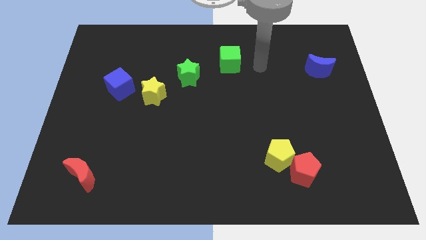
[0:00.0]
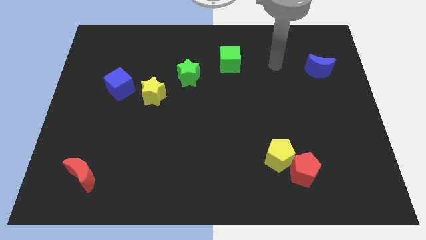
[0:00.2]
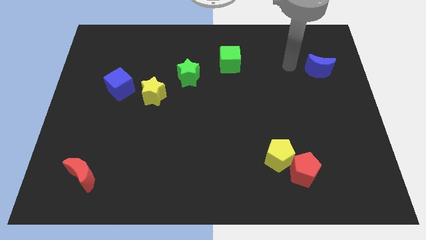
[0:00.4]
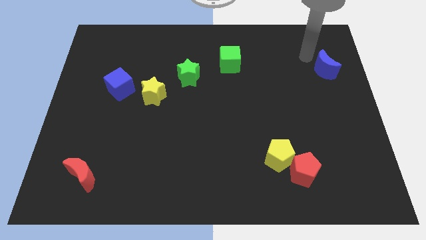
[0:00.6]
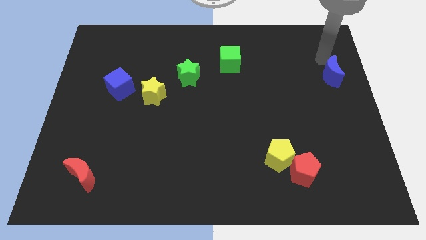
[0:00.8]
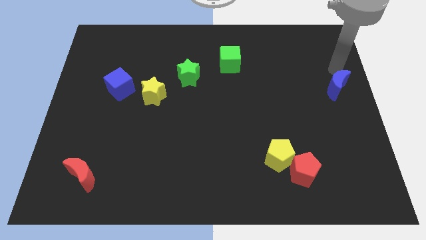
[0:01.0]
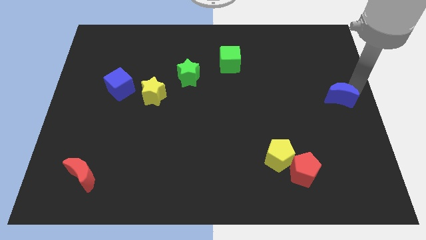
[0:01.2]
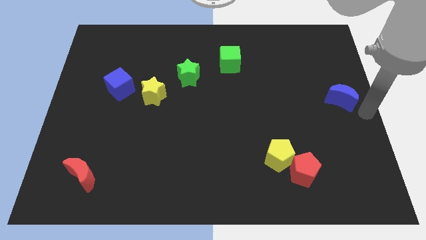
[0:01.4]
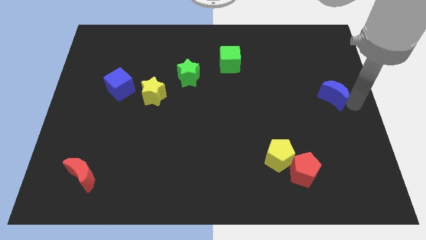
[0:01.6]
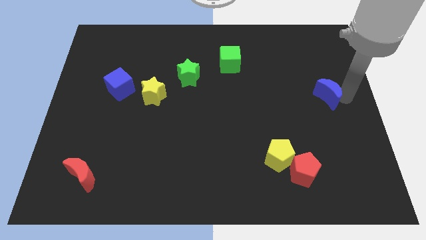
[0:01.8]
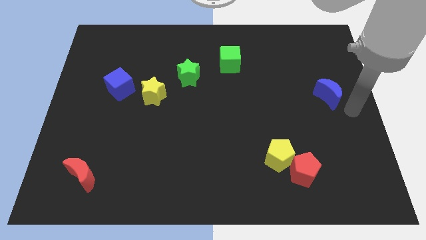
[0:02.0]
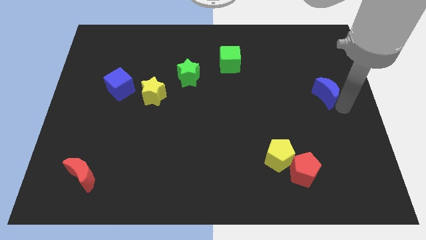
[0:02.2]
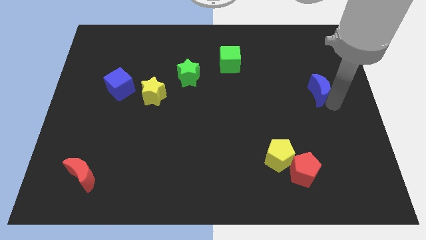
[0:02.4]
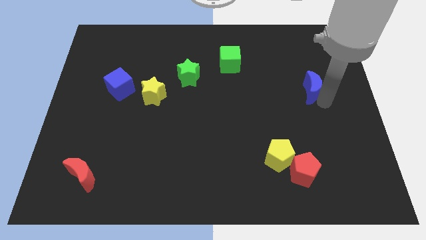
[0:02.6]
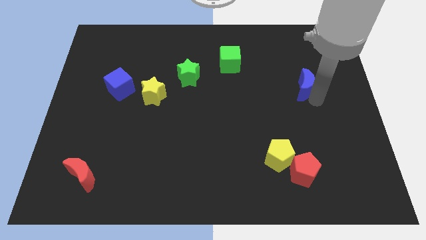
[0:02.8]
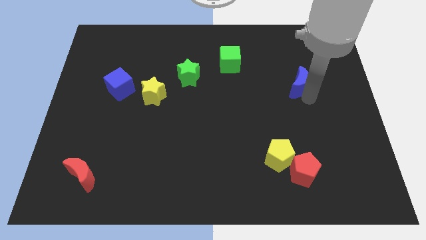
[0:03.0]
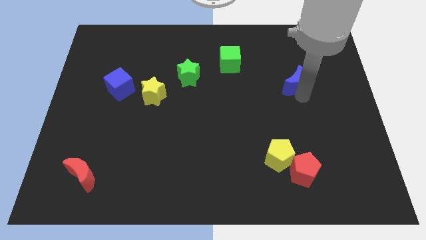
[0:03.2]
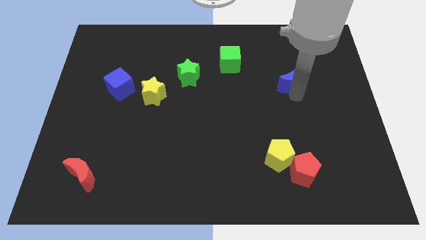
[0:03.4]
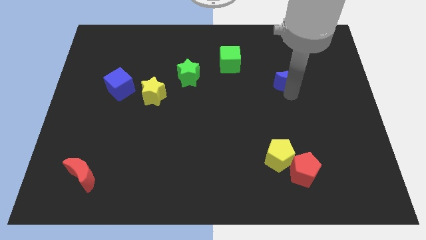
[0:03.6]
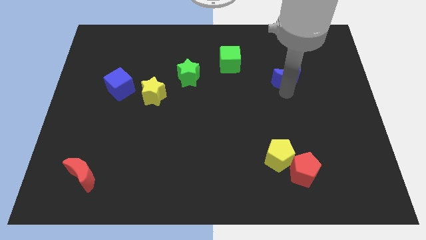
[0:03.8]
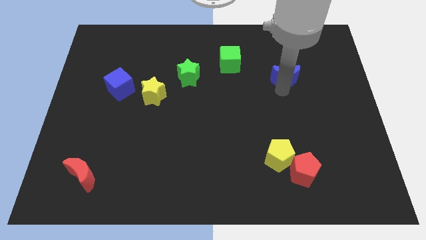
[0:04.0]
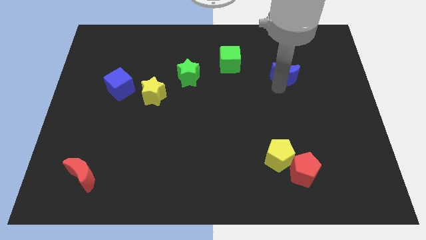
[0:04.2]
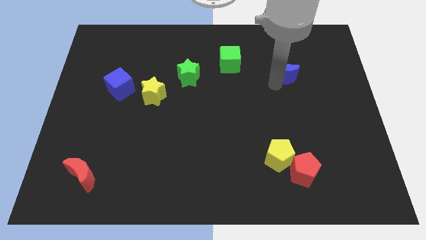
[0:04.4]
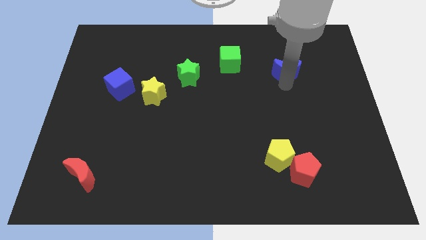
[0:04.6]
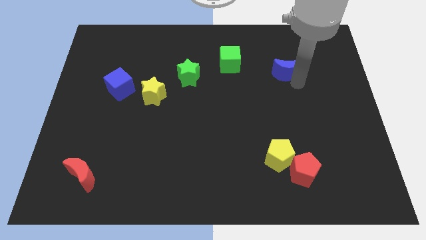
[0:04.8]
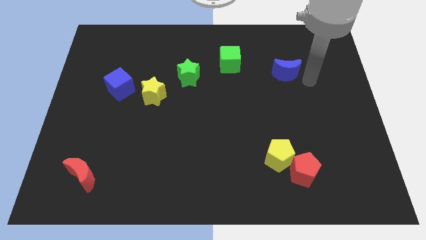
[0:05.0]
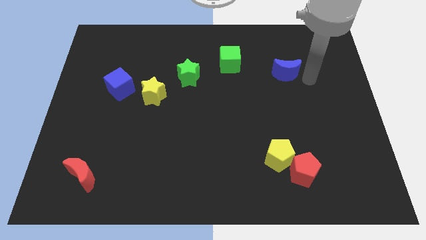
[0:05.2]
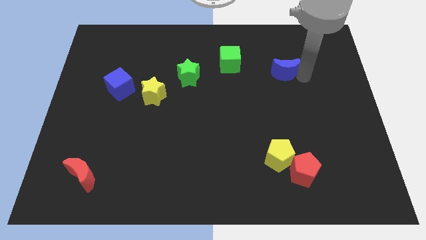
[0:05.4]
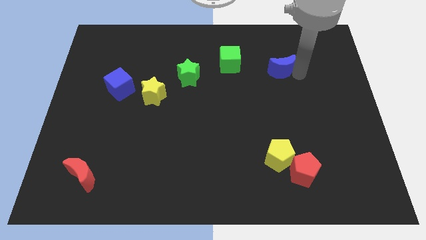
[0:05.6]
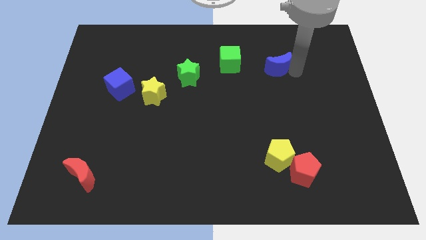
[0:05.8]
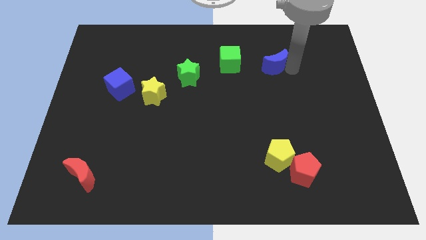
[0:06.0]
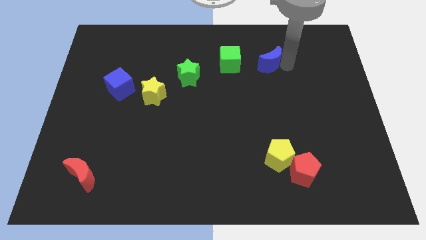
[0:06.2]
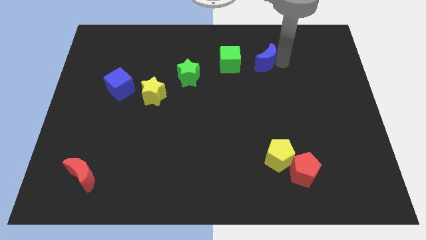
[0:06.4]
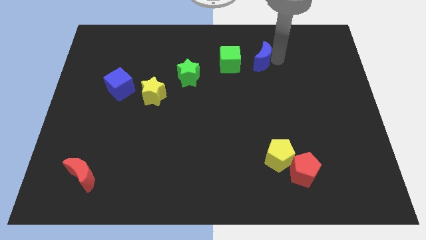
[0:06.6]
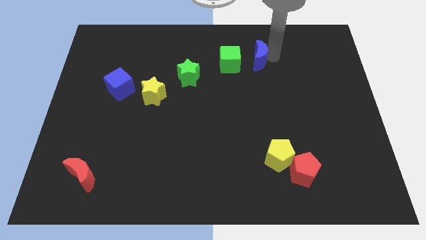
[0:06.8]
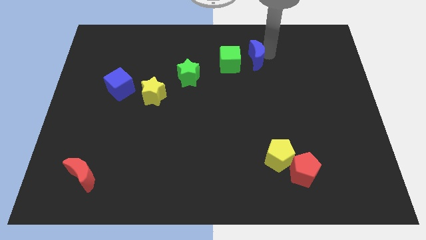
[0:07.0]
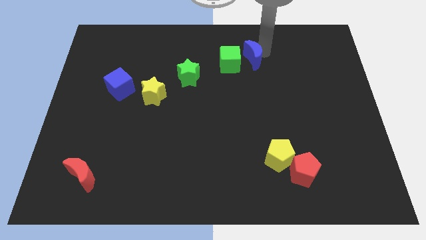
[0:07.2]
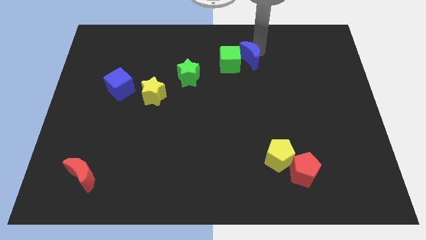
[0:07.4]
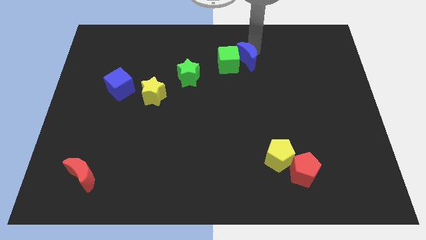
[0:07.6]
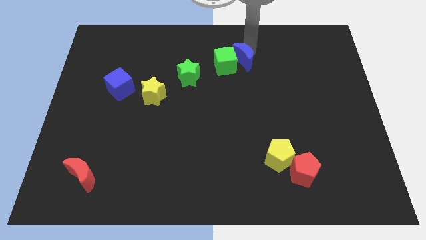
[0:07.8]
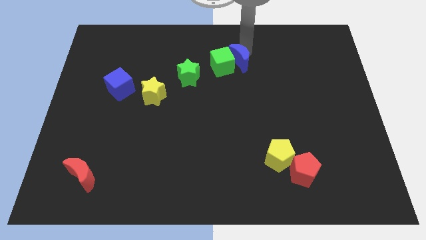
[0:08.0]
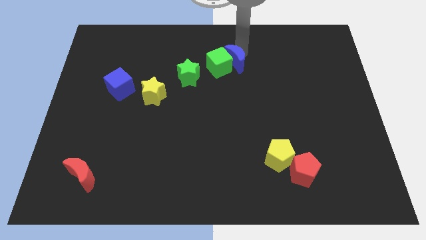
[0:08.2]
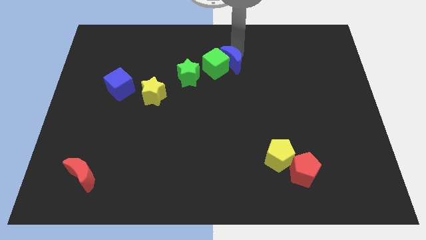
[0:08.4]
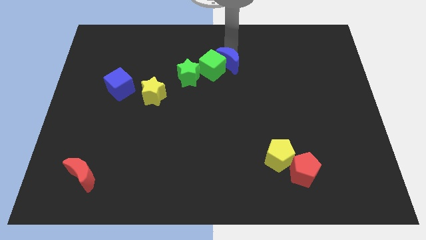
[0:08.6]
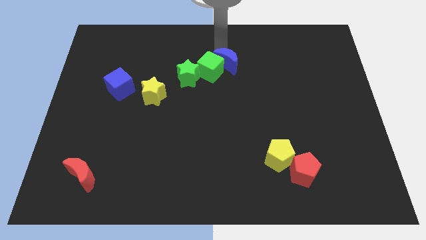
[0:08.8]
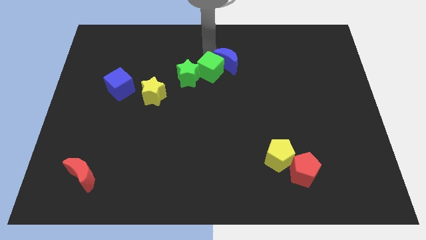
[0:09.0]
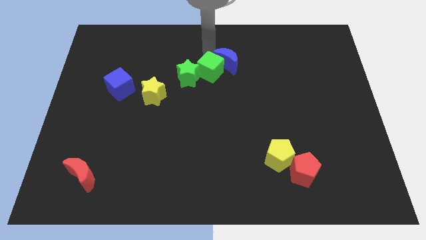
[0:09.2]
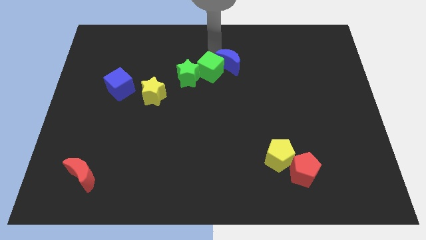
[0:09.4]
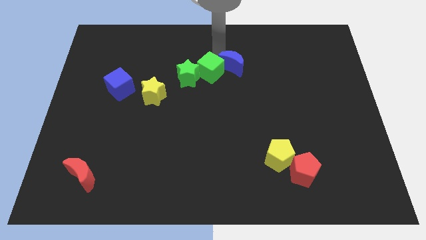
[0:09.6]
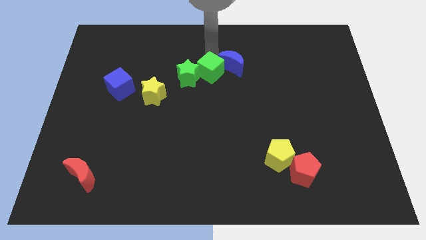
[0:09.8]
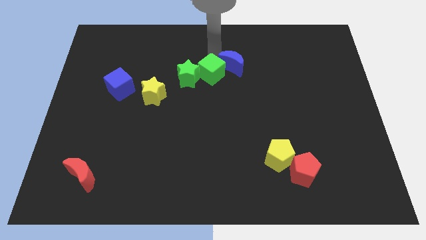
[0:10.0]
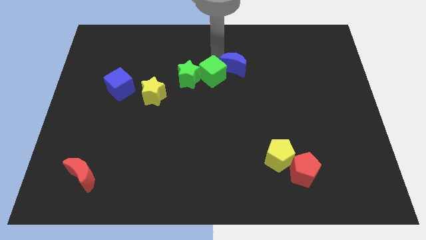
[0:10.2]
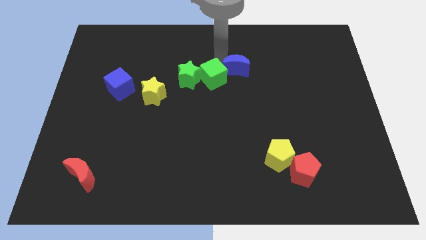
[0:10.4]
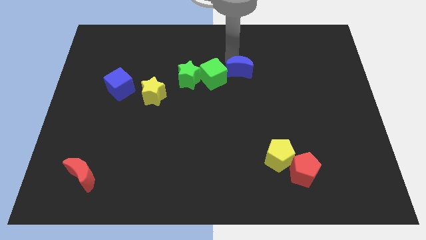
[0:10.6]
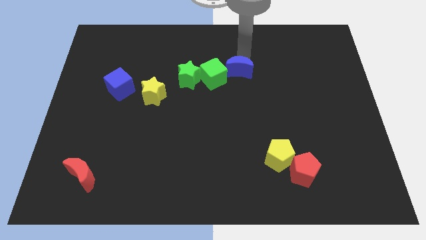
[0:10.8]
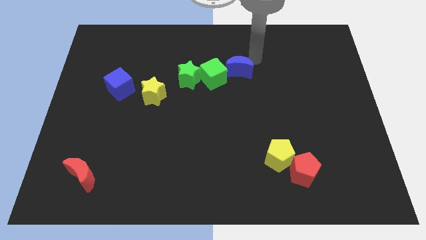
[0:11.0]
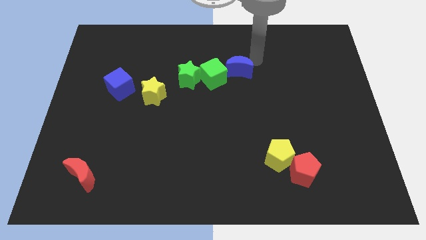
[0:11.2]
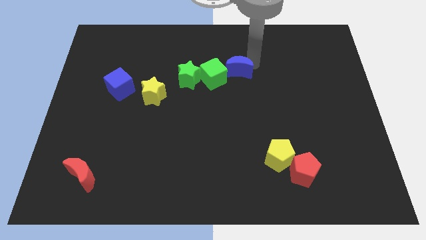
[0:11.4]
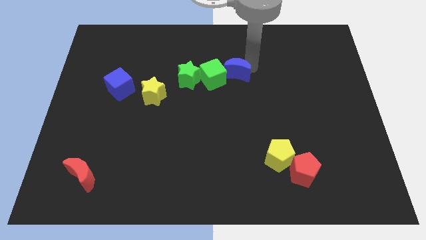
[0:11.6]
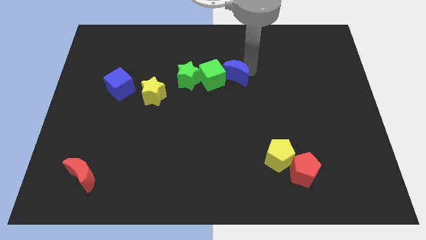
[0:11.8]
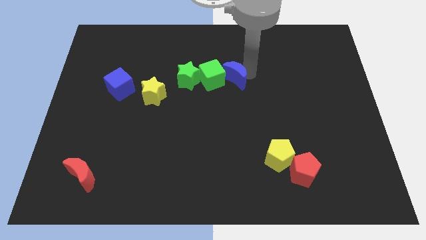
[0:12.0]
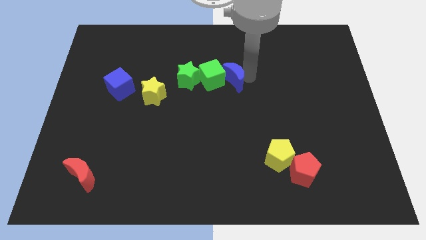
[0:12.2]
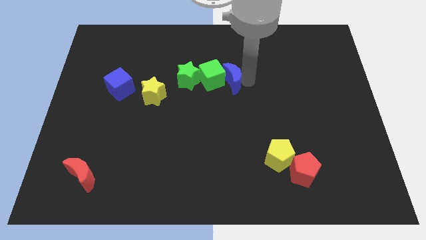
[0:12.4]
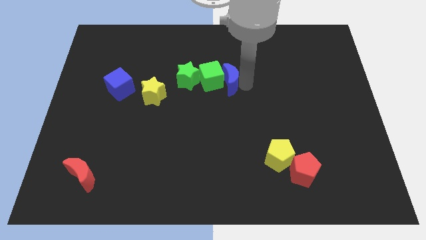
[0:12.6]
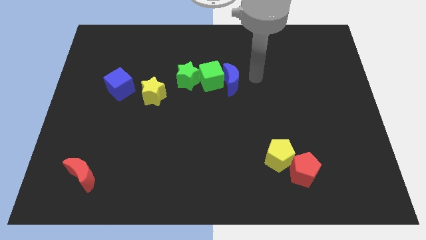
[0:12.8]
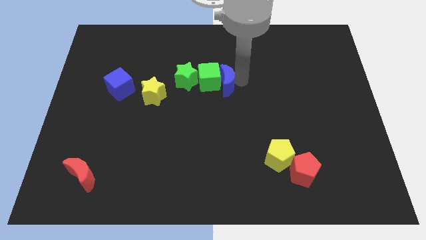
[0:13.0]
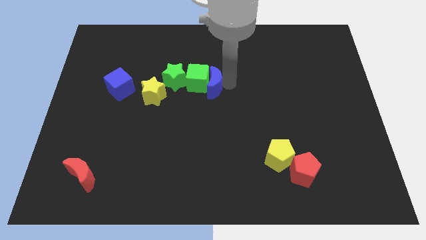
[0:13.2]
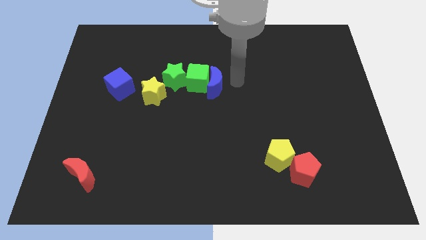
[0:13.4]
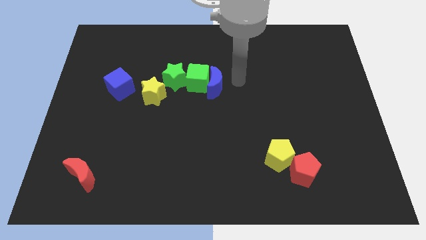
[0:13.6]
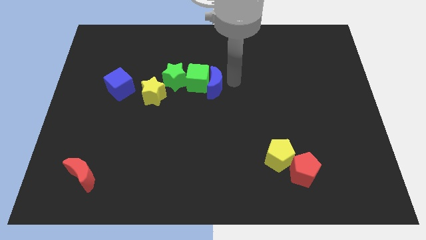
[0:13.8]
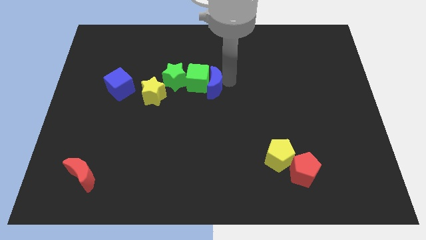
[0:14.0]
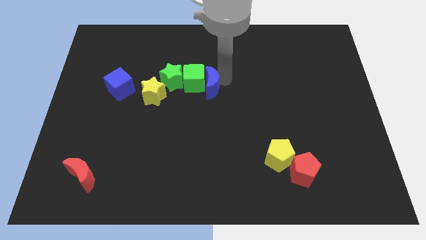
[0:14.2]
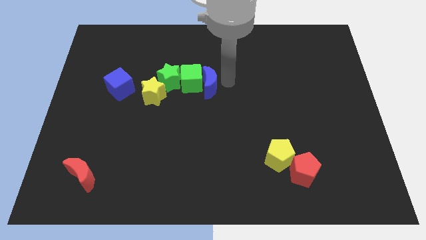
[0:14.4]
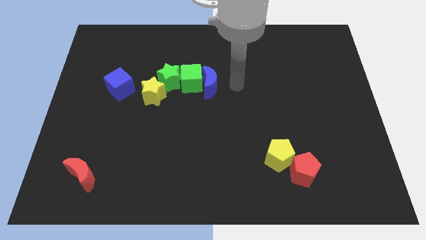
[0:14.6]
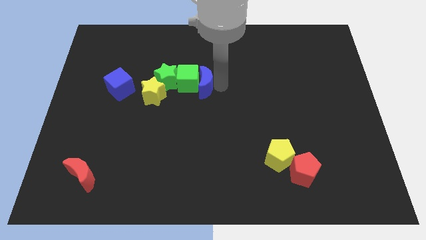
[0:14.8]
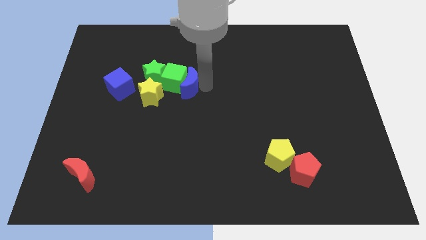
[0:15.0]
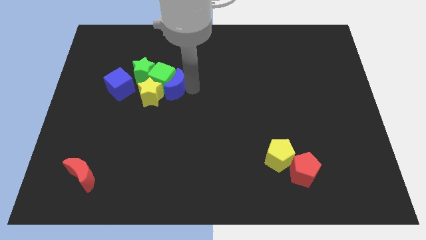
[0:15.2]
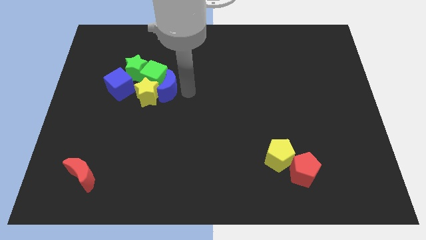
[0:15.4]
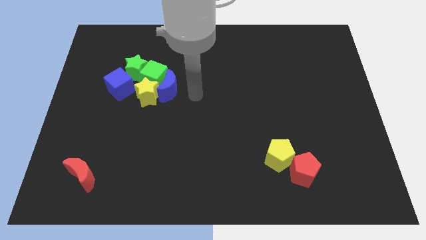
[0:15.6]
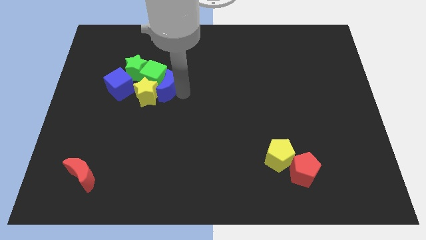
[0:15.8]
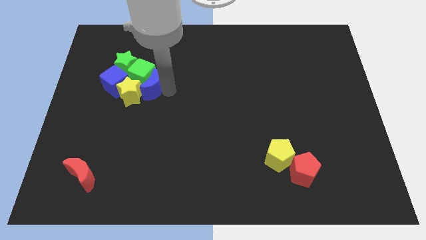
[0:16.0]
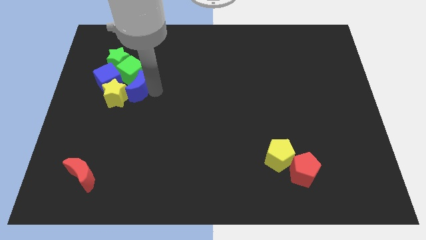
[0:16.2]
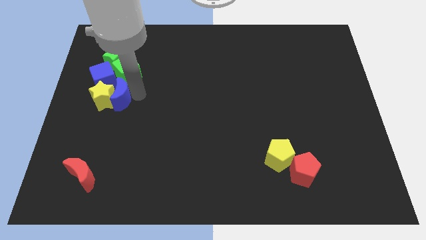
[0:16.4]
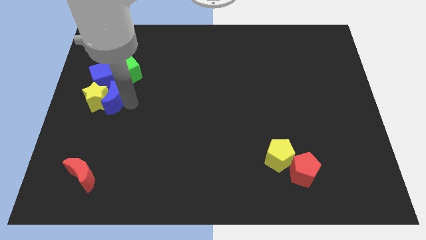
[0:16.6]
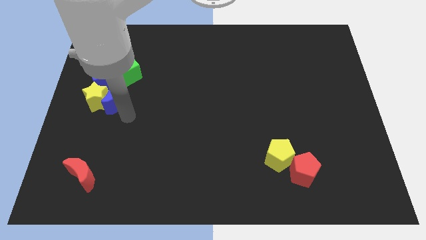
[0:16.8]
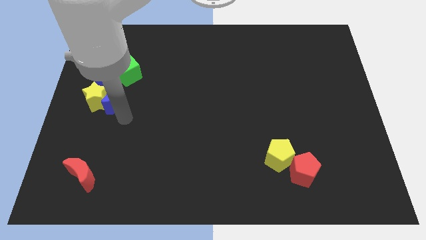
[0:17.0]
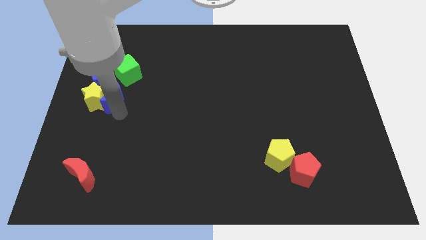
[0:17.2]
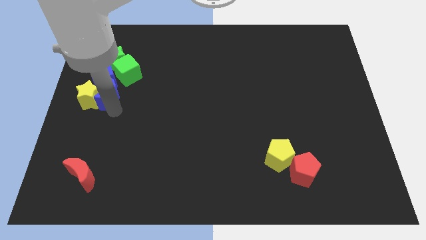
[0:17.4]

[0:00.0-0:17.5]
put the blue moon close to the blue cube
